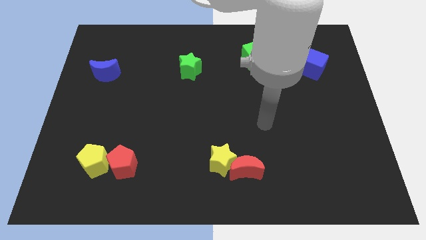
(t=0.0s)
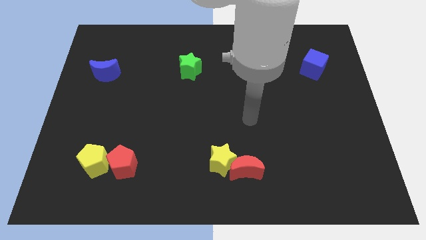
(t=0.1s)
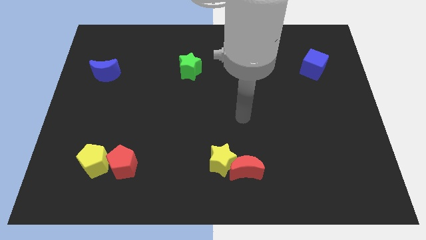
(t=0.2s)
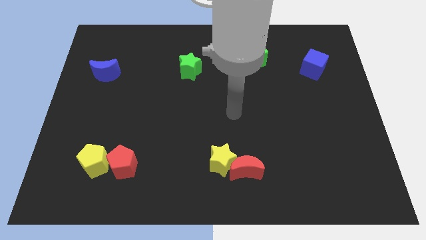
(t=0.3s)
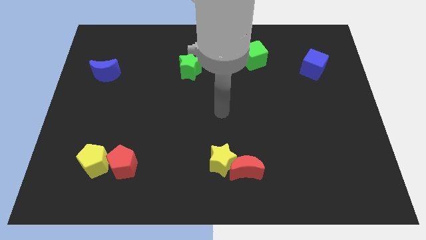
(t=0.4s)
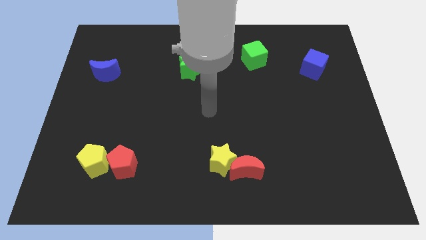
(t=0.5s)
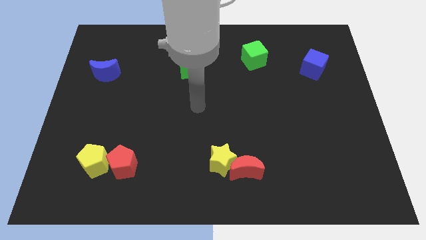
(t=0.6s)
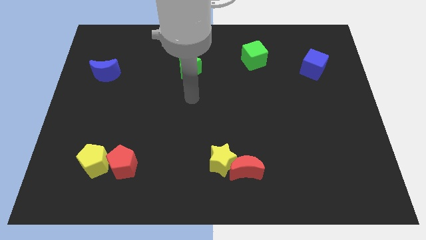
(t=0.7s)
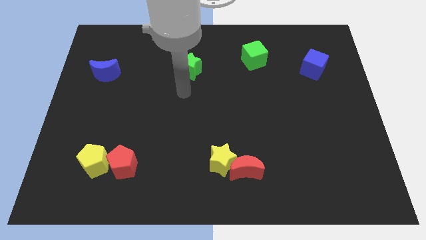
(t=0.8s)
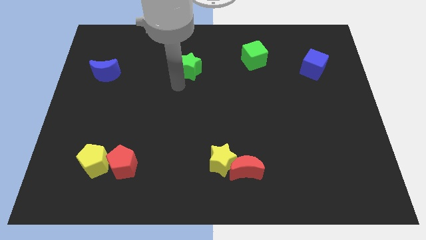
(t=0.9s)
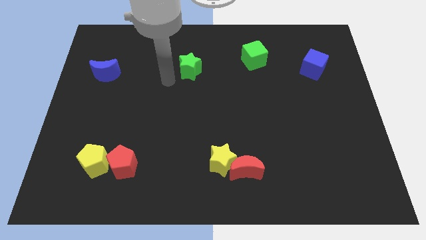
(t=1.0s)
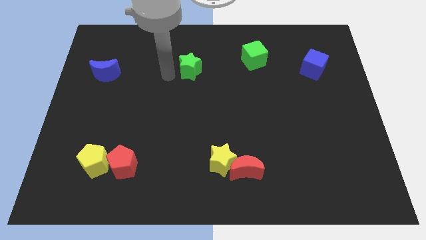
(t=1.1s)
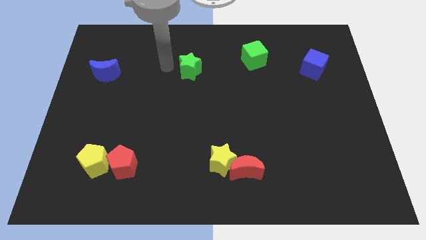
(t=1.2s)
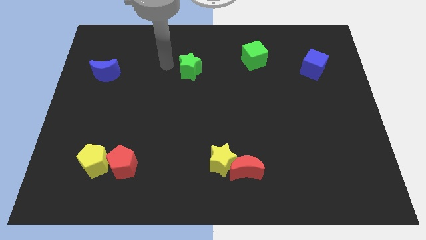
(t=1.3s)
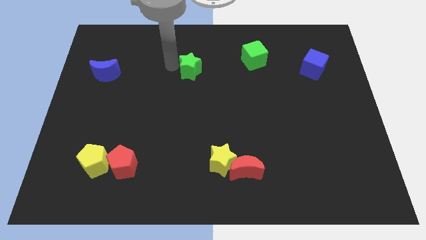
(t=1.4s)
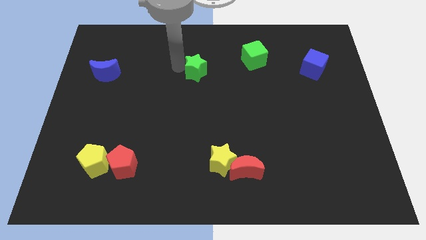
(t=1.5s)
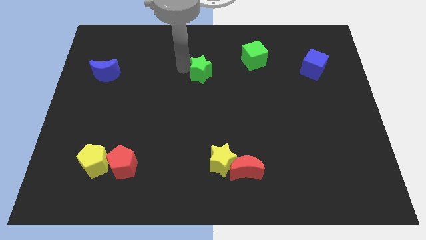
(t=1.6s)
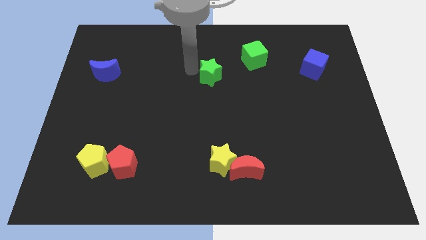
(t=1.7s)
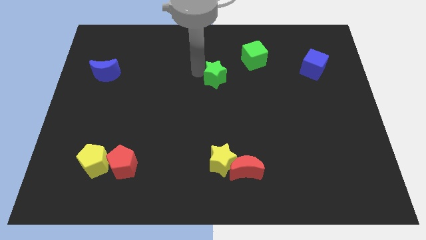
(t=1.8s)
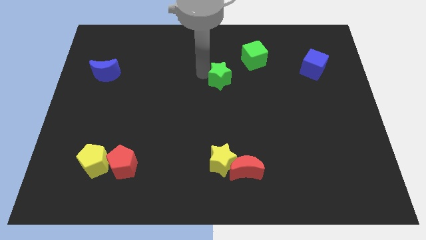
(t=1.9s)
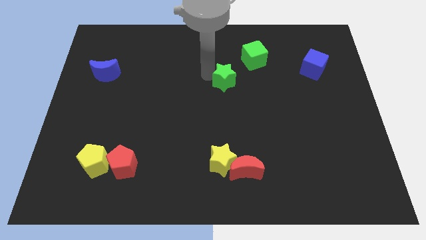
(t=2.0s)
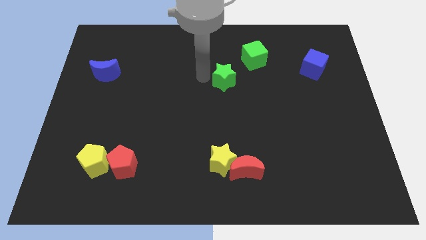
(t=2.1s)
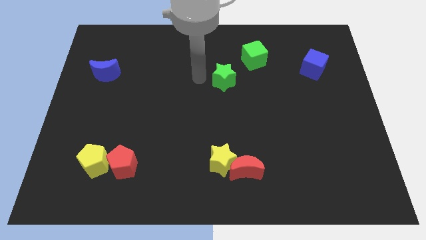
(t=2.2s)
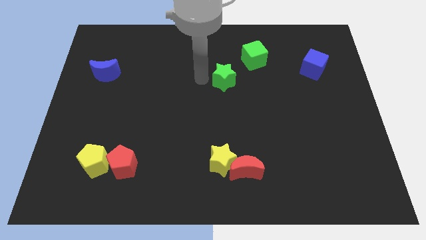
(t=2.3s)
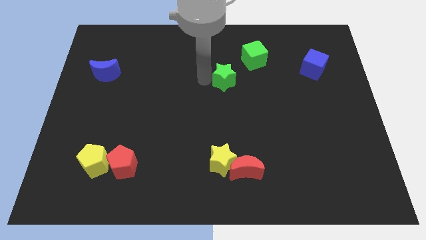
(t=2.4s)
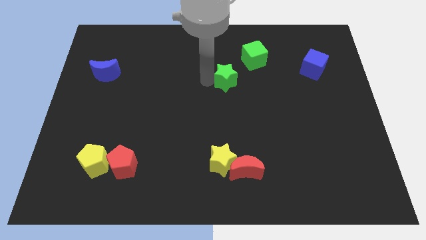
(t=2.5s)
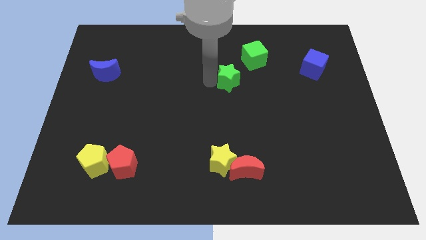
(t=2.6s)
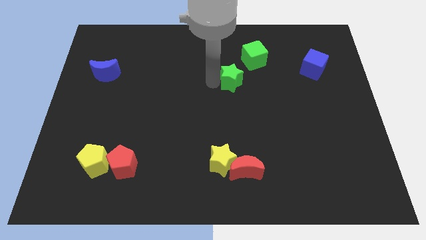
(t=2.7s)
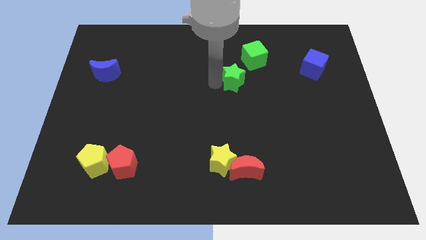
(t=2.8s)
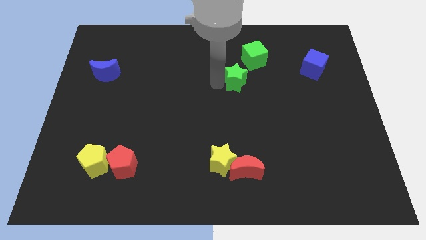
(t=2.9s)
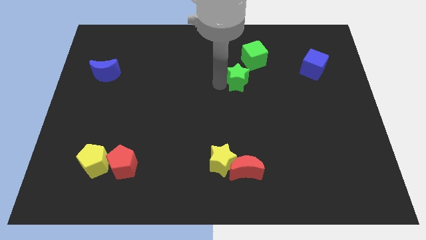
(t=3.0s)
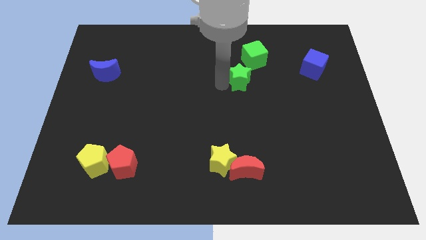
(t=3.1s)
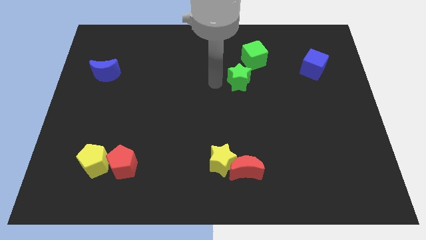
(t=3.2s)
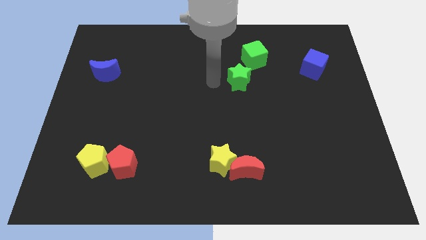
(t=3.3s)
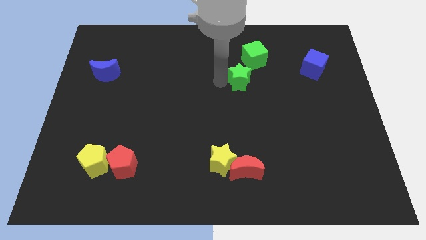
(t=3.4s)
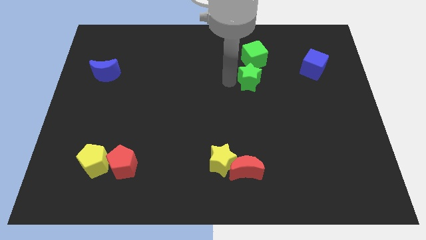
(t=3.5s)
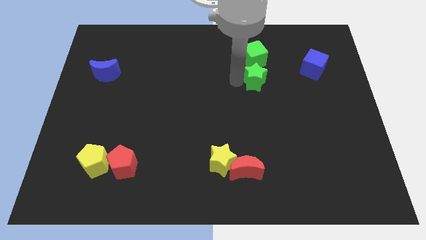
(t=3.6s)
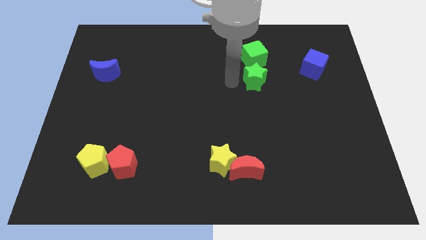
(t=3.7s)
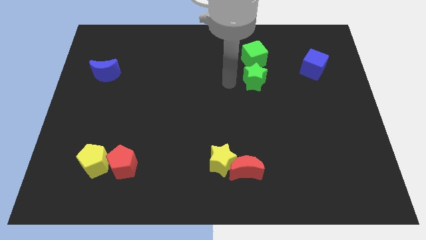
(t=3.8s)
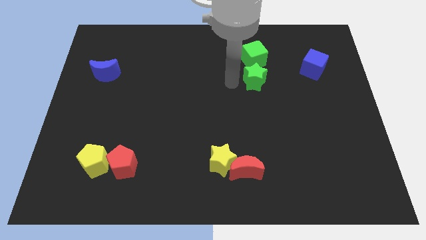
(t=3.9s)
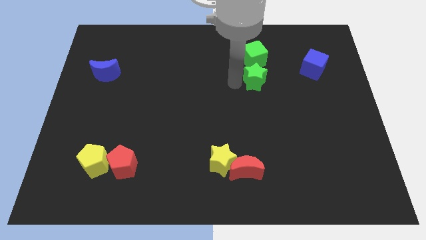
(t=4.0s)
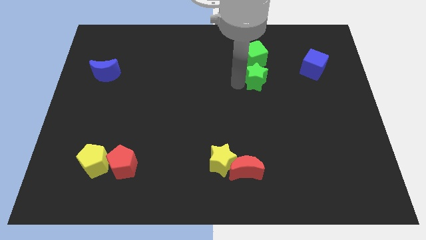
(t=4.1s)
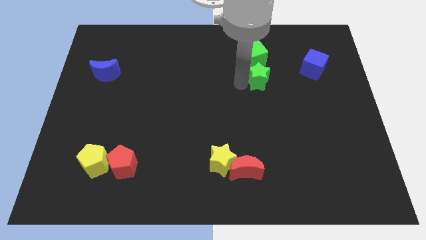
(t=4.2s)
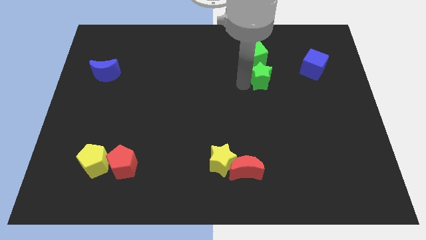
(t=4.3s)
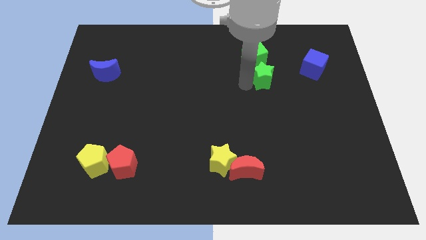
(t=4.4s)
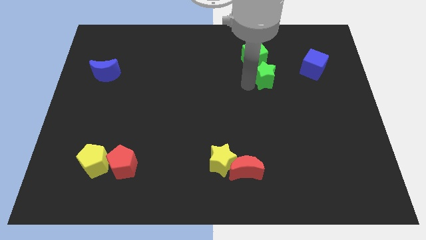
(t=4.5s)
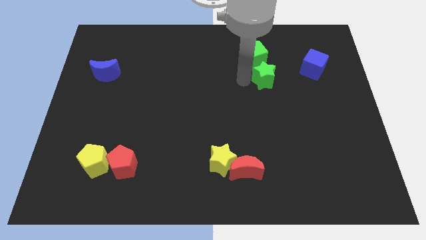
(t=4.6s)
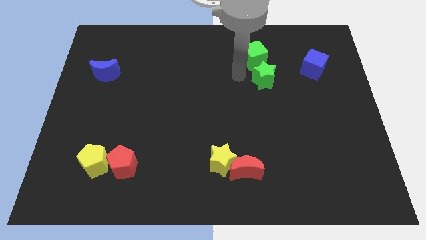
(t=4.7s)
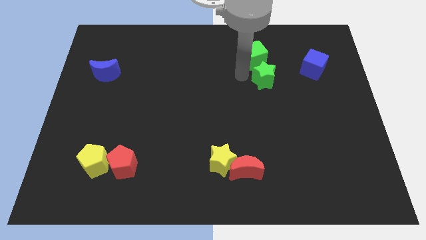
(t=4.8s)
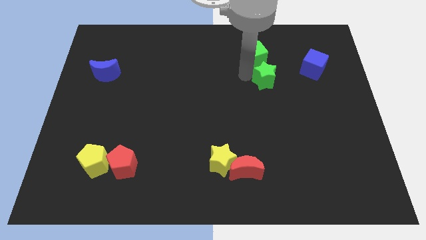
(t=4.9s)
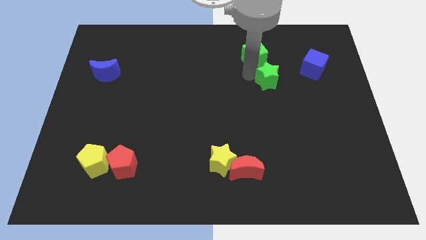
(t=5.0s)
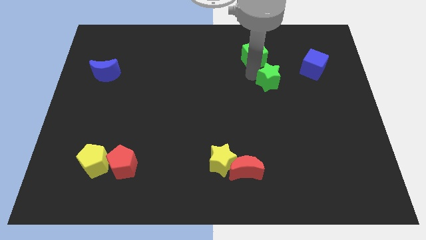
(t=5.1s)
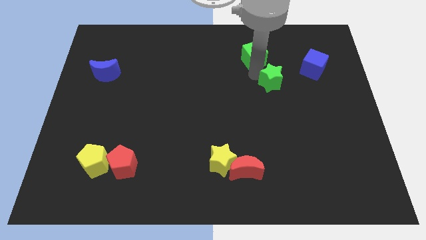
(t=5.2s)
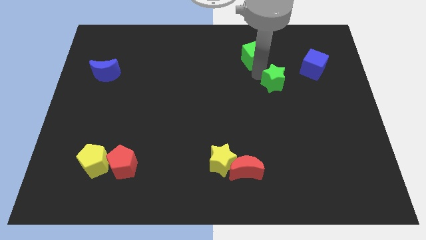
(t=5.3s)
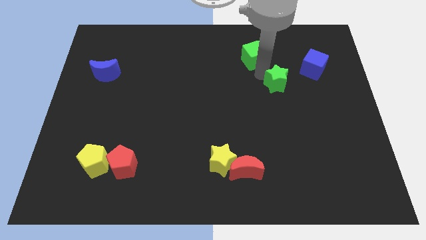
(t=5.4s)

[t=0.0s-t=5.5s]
put the green star to the bottom left of the blue cube

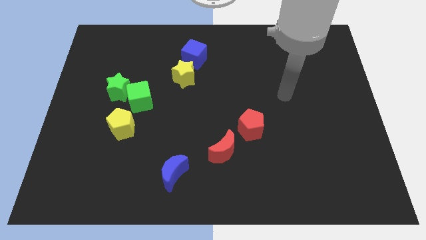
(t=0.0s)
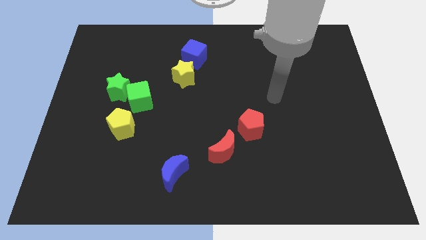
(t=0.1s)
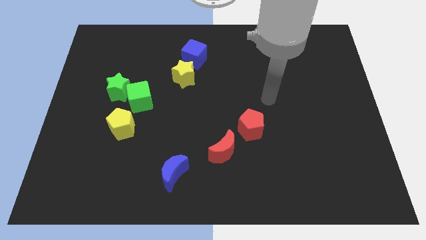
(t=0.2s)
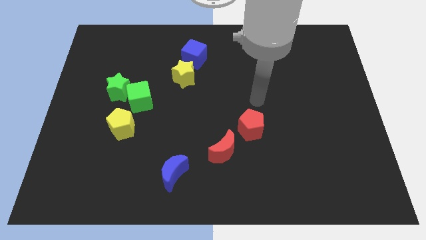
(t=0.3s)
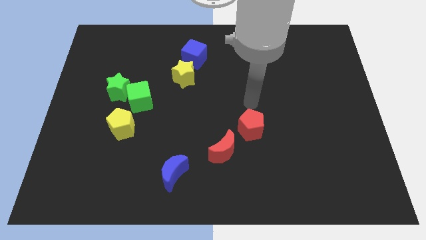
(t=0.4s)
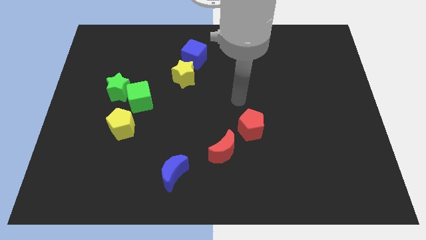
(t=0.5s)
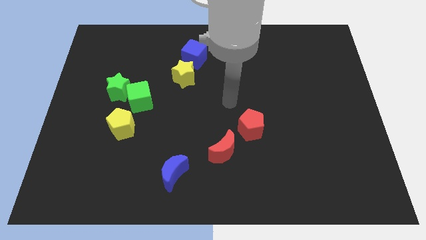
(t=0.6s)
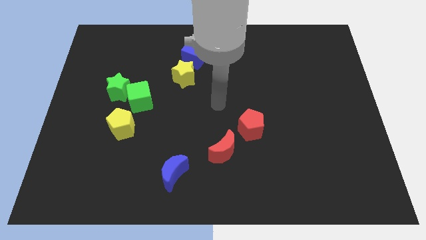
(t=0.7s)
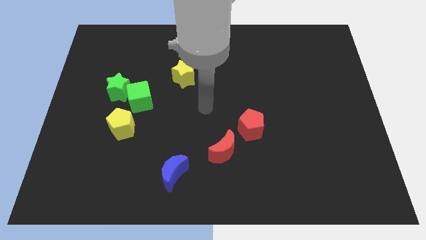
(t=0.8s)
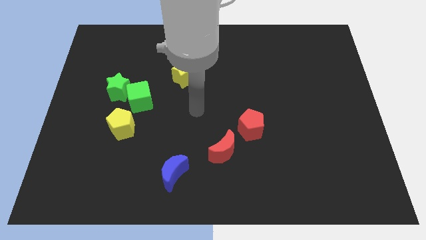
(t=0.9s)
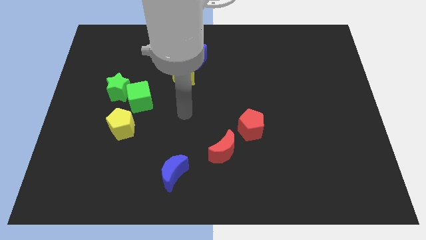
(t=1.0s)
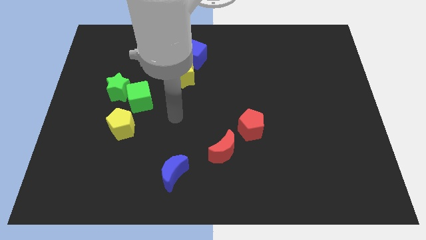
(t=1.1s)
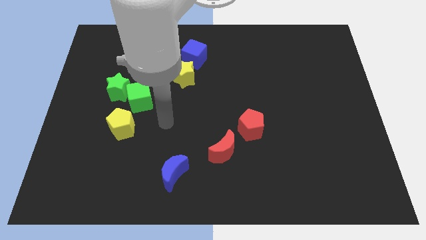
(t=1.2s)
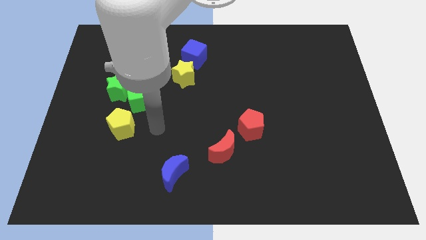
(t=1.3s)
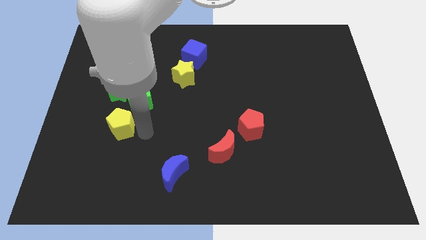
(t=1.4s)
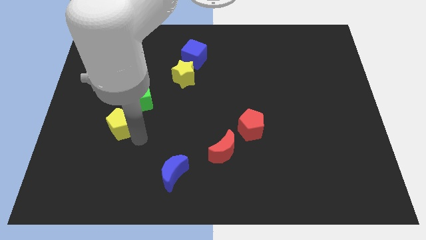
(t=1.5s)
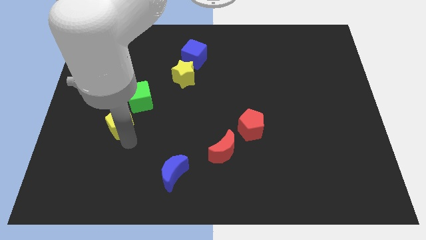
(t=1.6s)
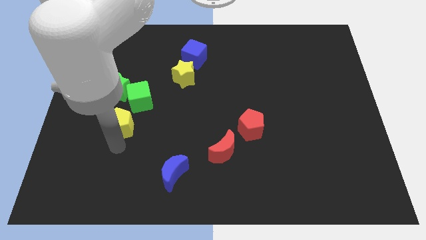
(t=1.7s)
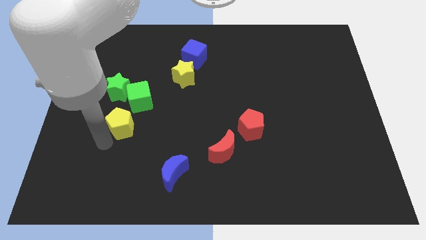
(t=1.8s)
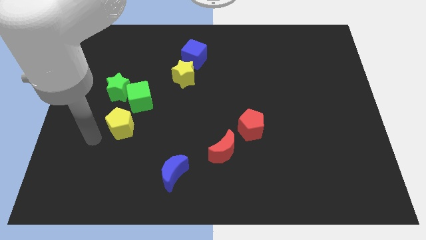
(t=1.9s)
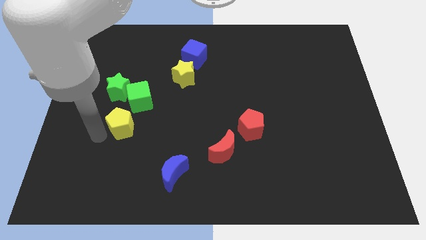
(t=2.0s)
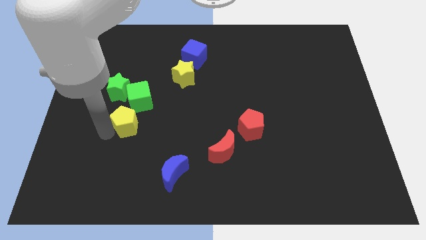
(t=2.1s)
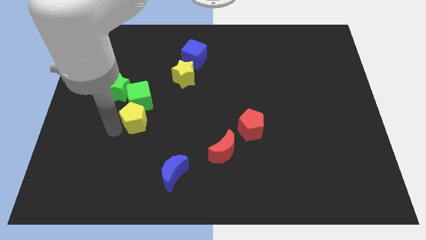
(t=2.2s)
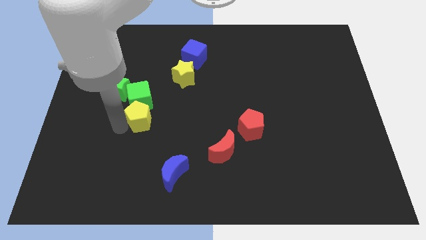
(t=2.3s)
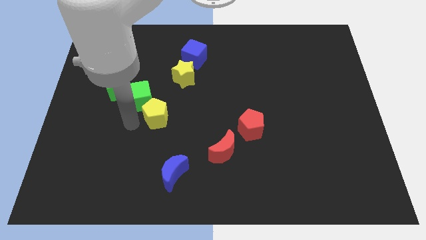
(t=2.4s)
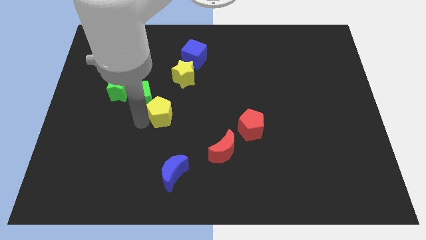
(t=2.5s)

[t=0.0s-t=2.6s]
slide the yellow pentagon to the right of the green cube
